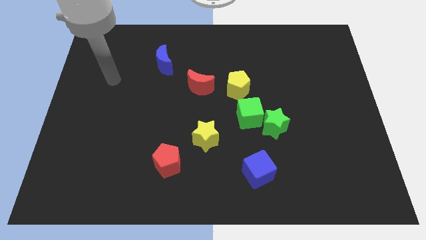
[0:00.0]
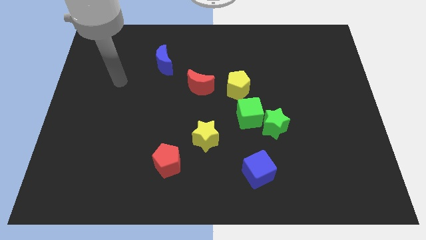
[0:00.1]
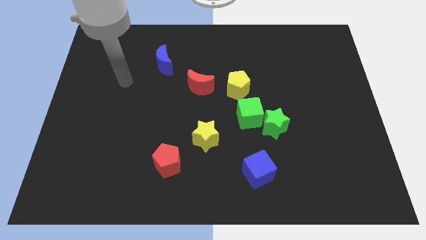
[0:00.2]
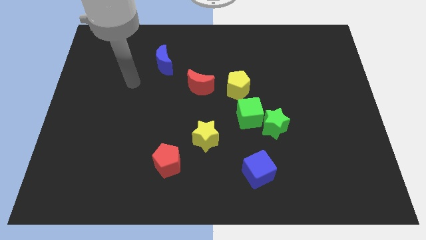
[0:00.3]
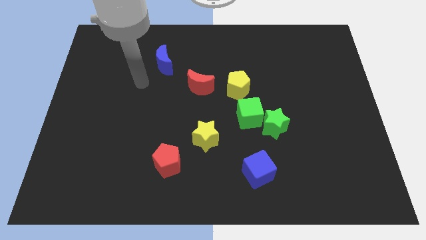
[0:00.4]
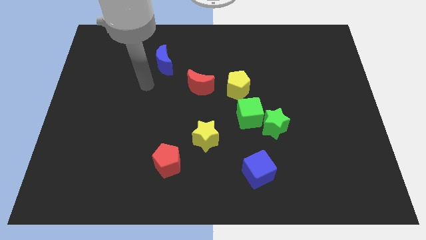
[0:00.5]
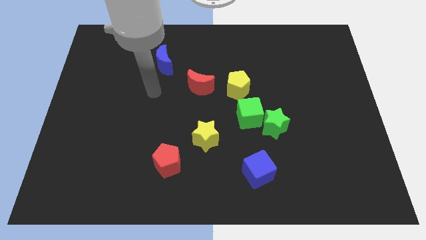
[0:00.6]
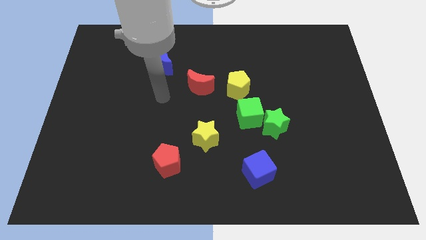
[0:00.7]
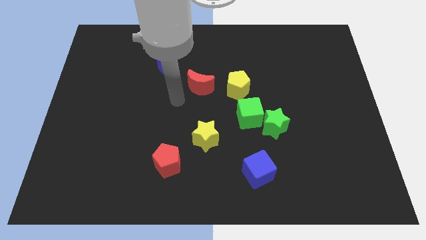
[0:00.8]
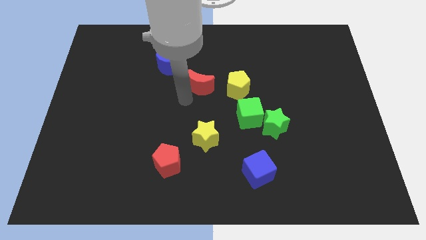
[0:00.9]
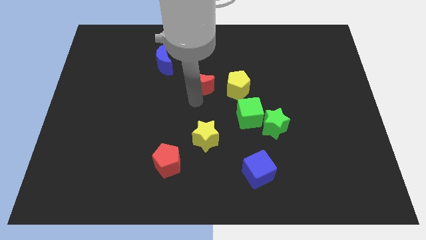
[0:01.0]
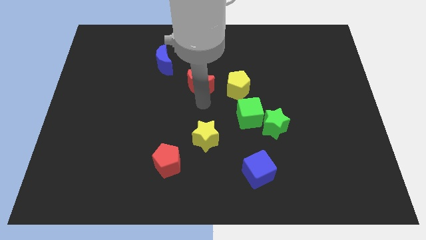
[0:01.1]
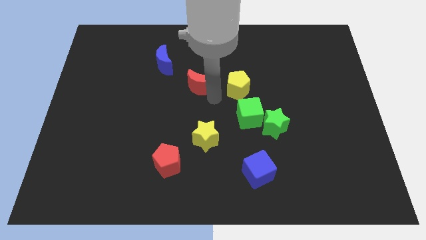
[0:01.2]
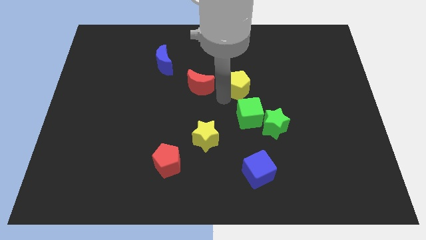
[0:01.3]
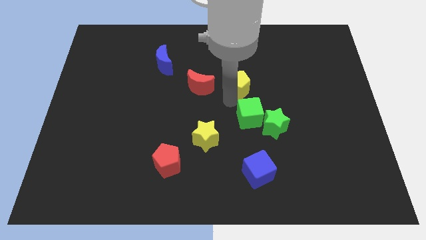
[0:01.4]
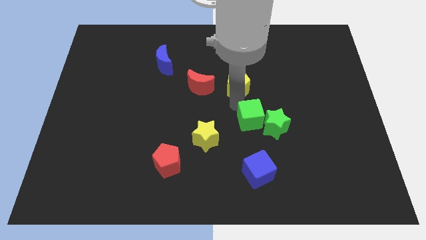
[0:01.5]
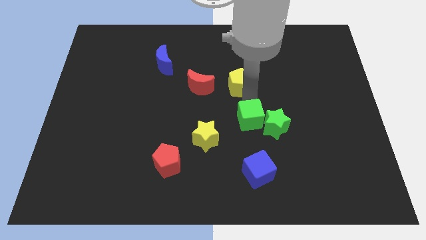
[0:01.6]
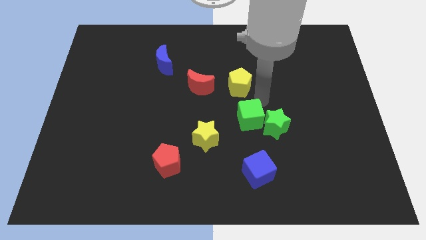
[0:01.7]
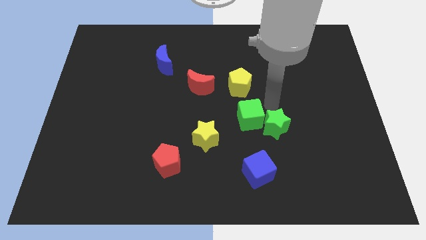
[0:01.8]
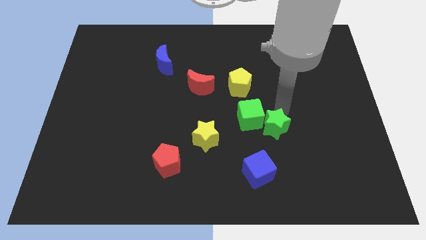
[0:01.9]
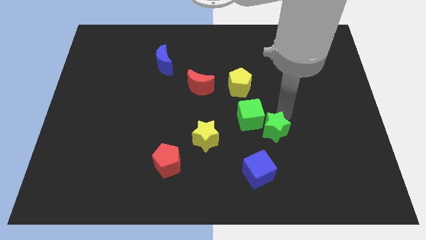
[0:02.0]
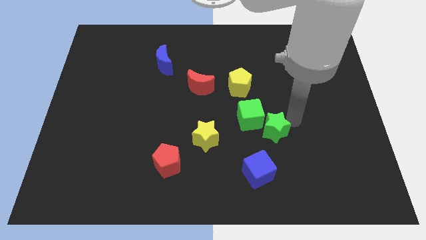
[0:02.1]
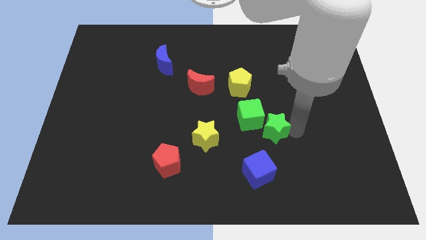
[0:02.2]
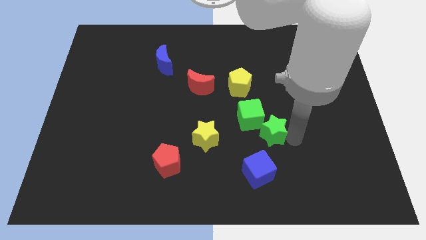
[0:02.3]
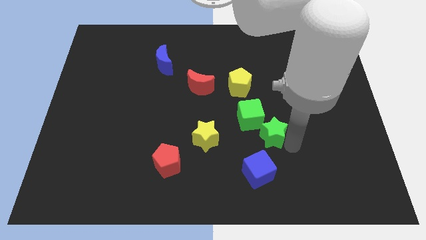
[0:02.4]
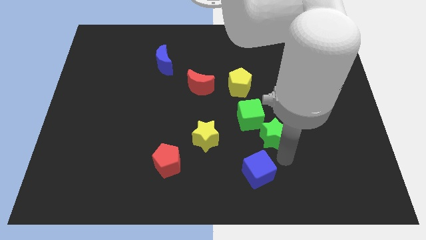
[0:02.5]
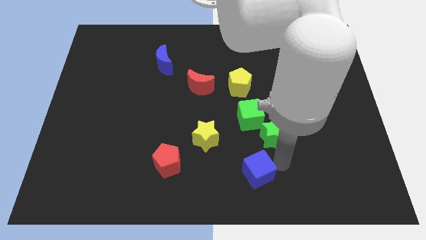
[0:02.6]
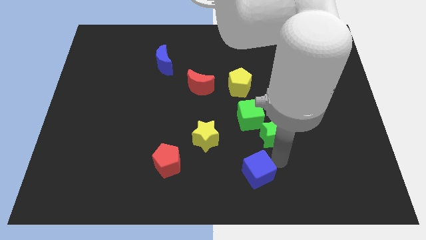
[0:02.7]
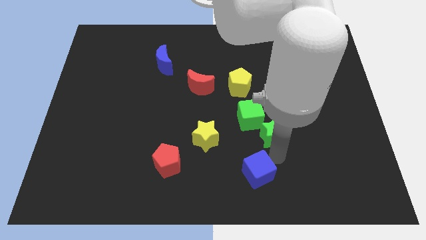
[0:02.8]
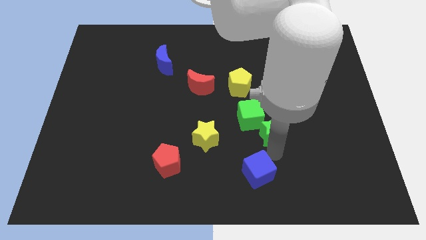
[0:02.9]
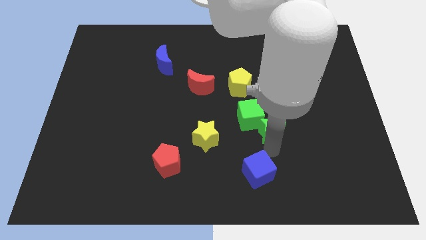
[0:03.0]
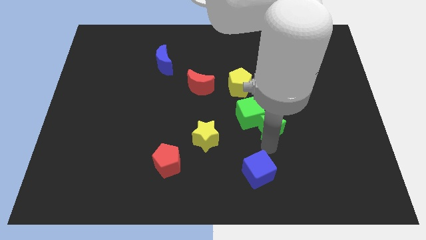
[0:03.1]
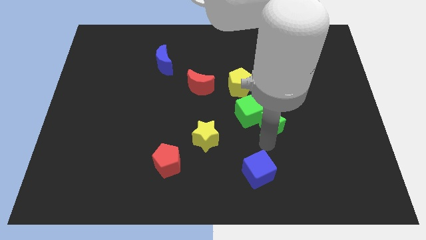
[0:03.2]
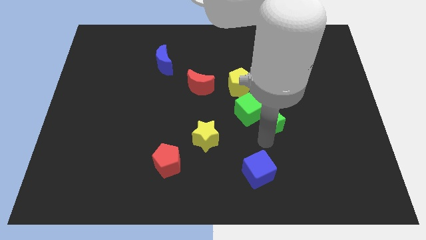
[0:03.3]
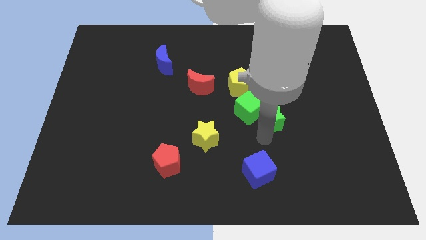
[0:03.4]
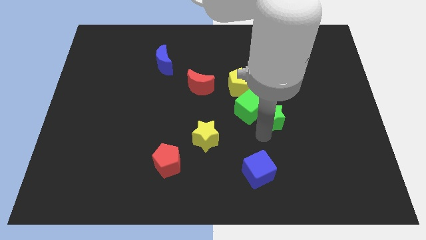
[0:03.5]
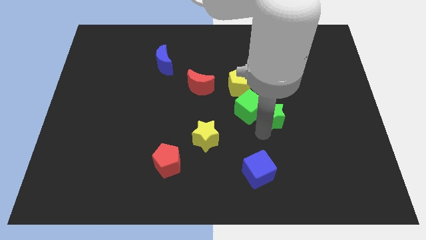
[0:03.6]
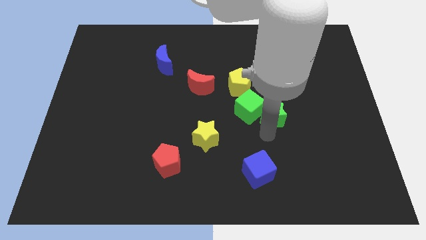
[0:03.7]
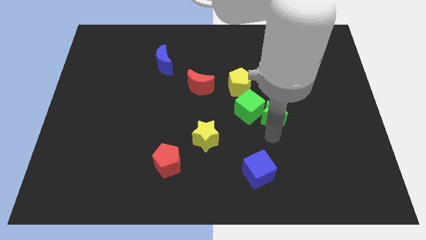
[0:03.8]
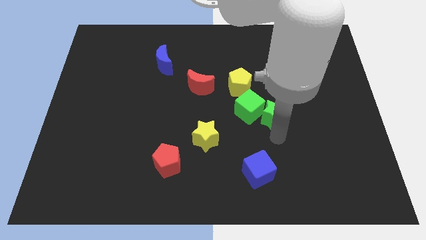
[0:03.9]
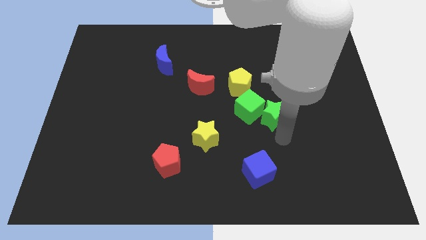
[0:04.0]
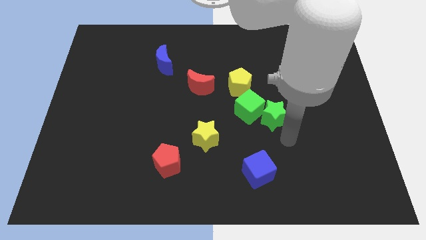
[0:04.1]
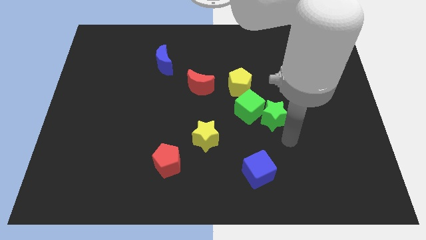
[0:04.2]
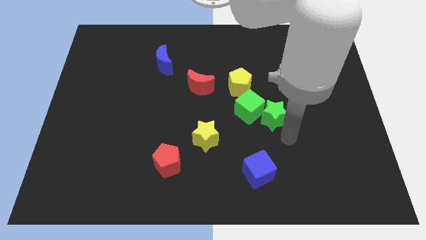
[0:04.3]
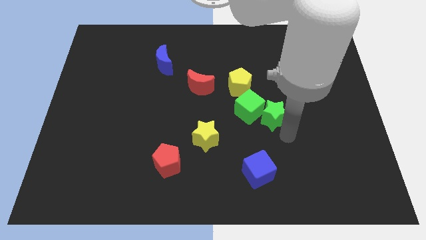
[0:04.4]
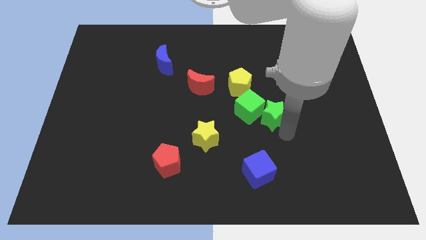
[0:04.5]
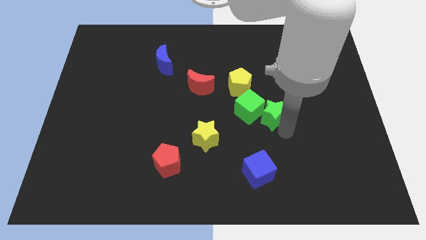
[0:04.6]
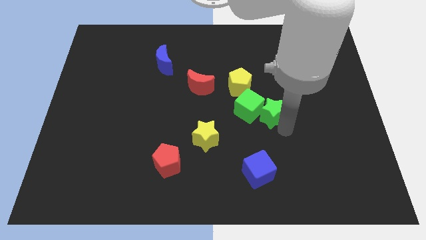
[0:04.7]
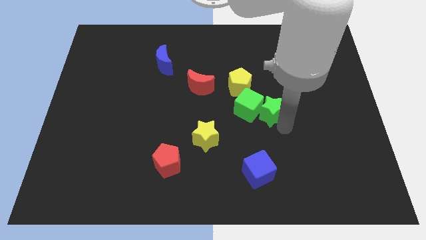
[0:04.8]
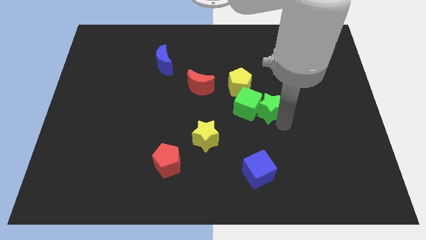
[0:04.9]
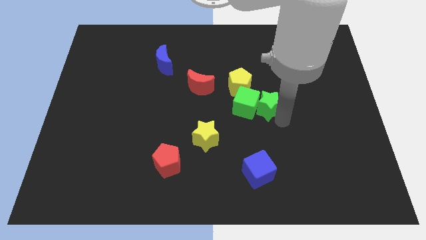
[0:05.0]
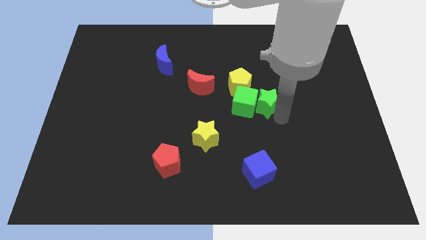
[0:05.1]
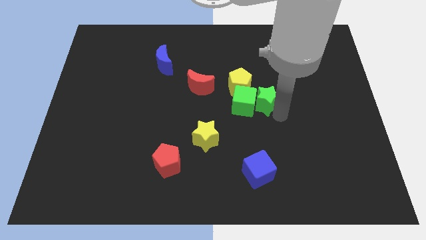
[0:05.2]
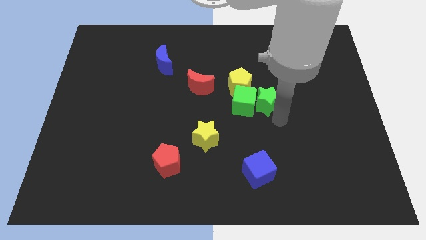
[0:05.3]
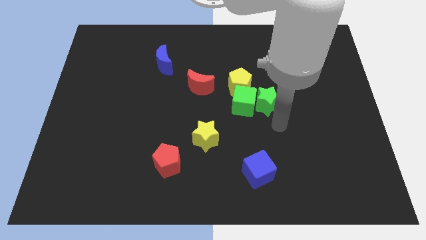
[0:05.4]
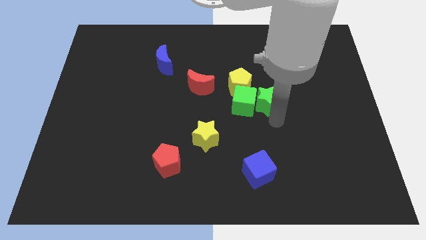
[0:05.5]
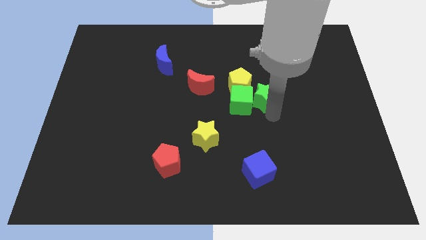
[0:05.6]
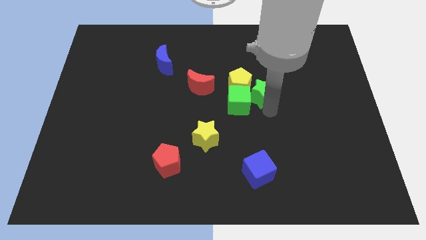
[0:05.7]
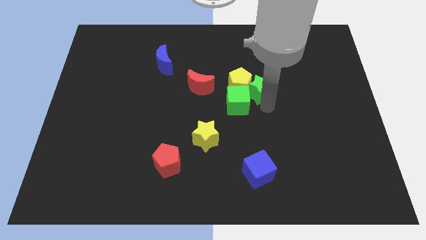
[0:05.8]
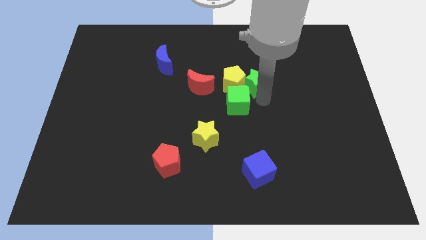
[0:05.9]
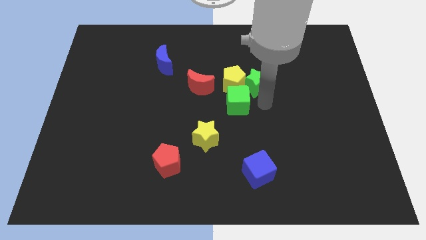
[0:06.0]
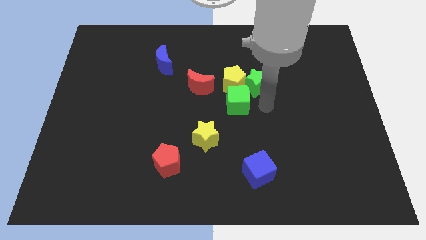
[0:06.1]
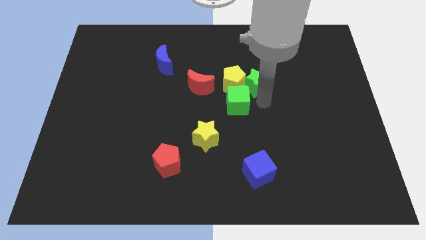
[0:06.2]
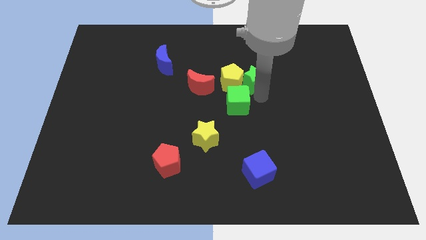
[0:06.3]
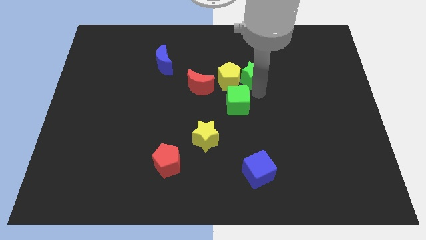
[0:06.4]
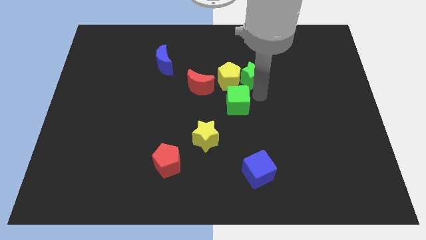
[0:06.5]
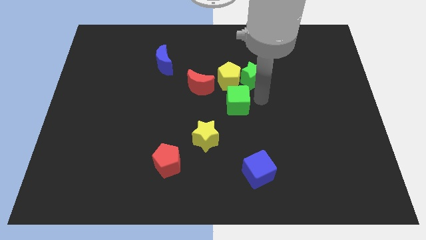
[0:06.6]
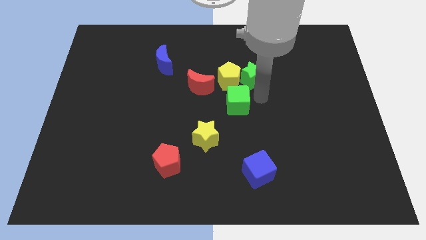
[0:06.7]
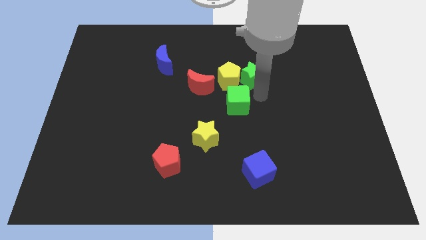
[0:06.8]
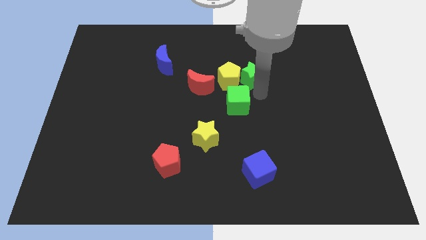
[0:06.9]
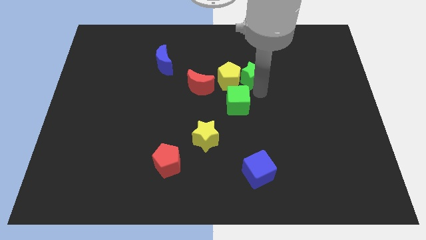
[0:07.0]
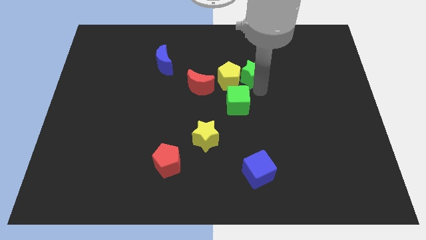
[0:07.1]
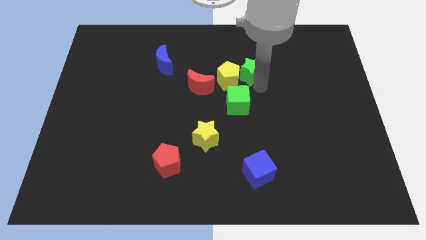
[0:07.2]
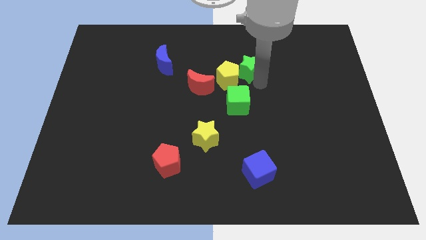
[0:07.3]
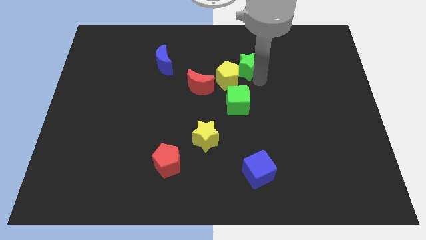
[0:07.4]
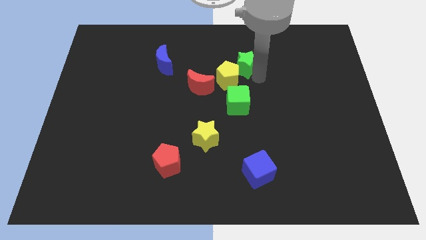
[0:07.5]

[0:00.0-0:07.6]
slide the green star above the yellow pentagon
